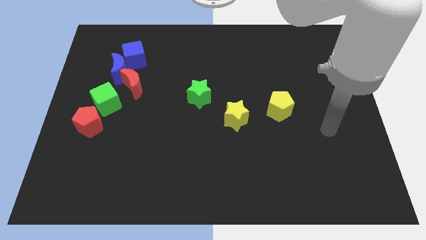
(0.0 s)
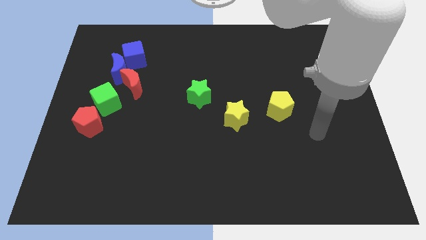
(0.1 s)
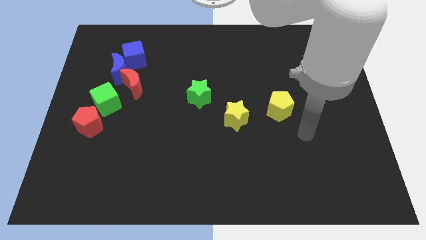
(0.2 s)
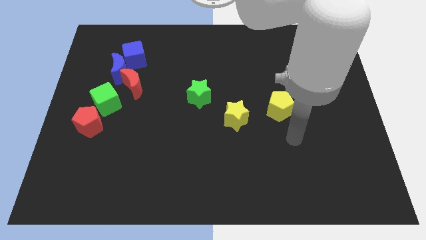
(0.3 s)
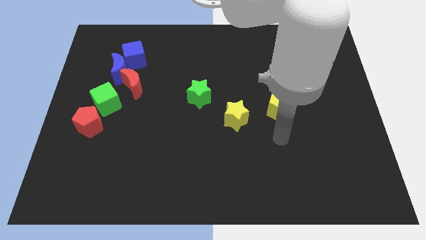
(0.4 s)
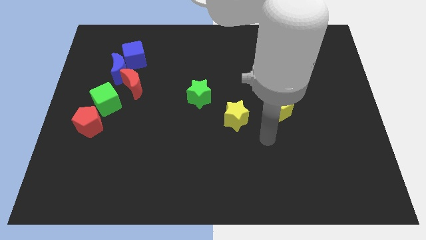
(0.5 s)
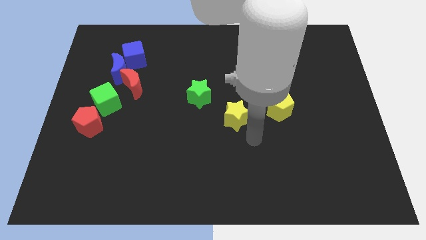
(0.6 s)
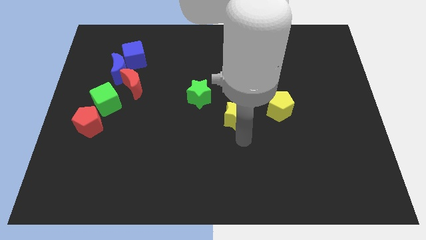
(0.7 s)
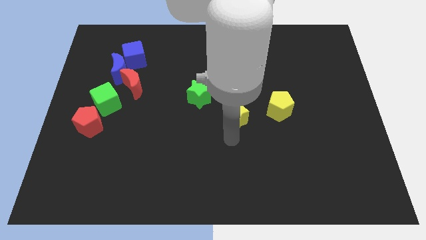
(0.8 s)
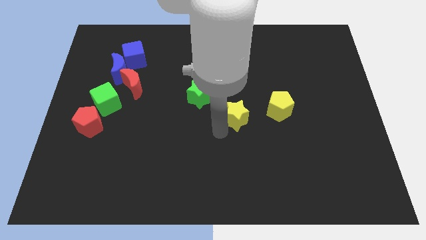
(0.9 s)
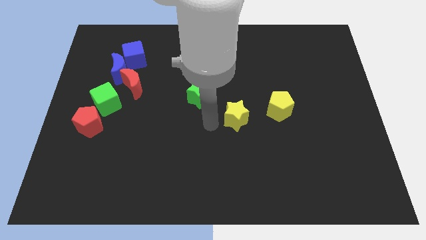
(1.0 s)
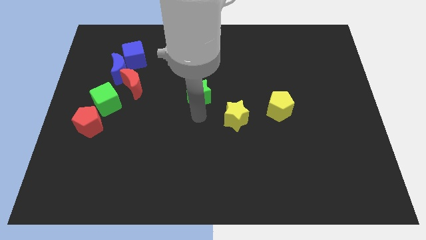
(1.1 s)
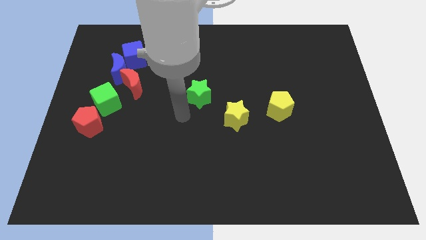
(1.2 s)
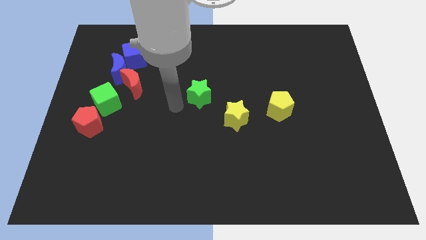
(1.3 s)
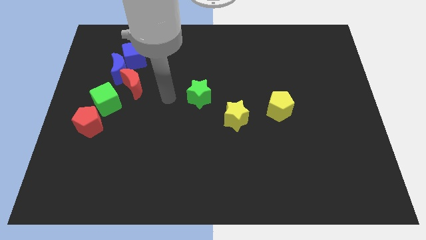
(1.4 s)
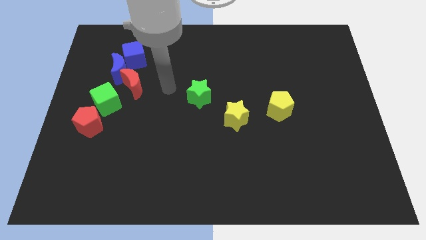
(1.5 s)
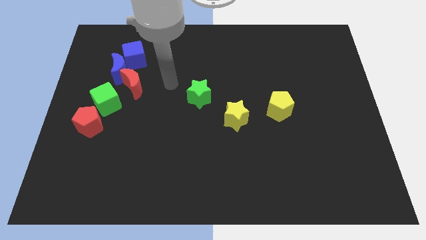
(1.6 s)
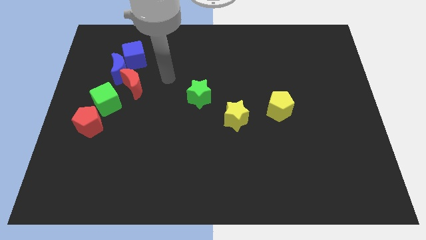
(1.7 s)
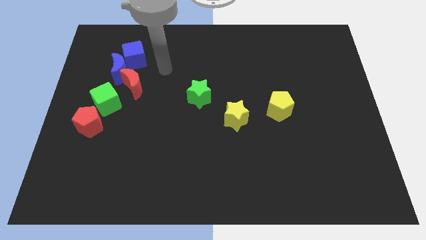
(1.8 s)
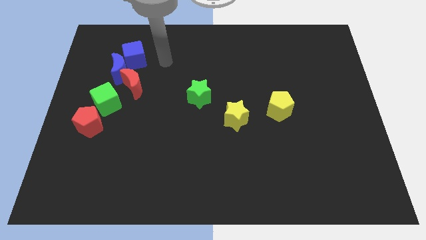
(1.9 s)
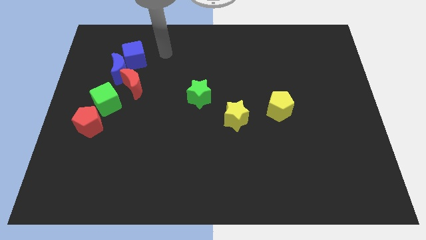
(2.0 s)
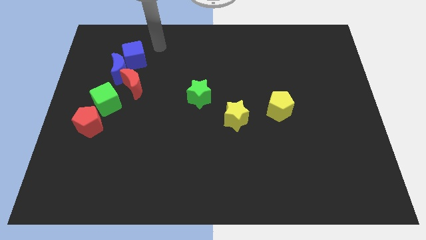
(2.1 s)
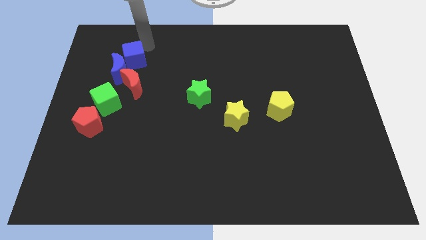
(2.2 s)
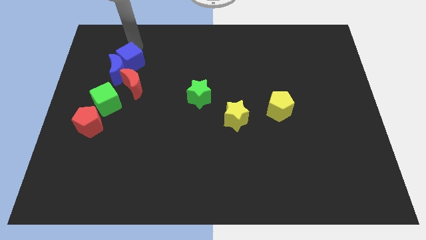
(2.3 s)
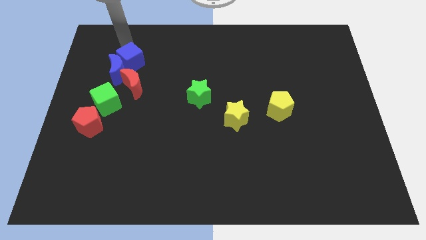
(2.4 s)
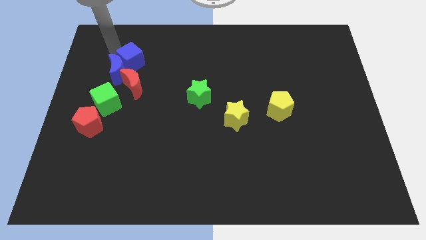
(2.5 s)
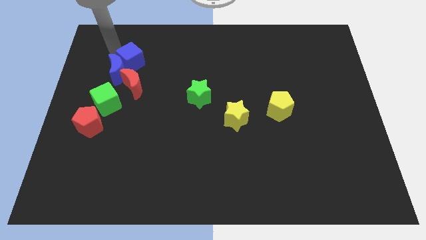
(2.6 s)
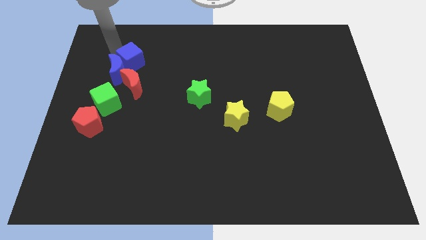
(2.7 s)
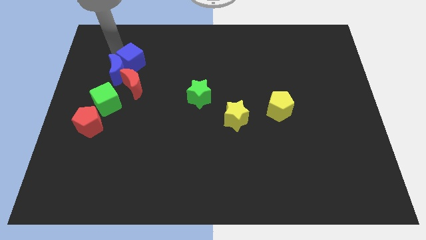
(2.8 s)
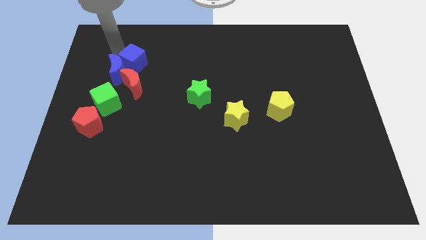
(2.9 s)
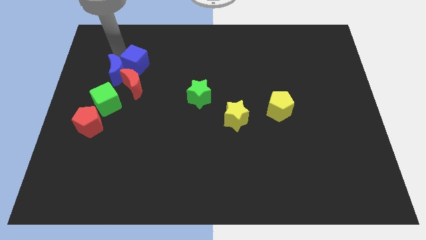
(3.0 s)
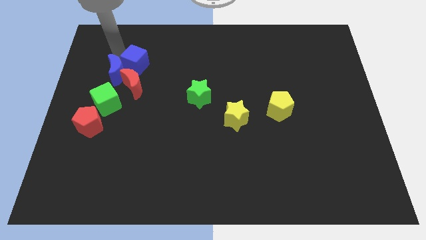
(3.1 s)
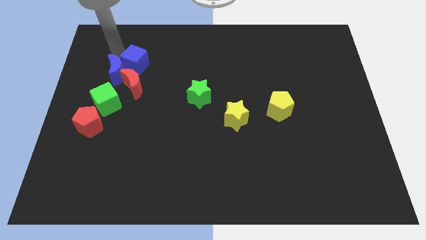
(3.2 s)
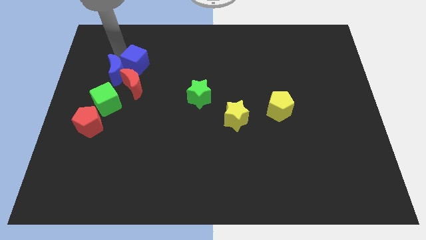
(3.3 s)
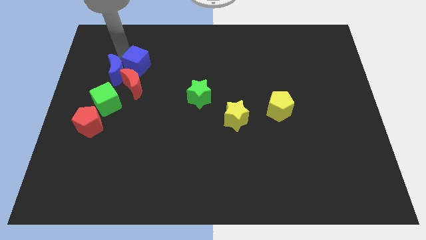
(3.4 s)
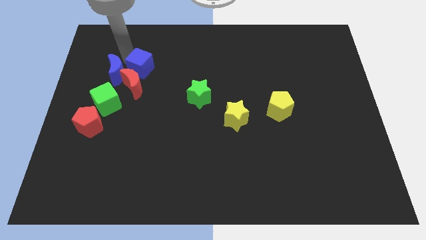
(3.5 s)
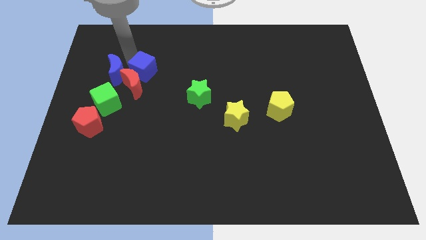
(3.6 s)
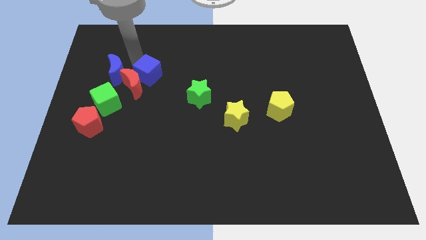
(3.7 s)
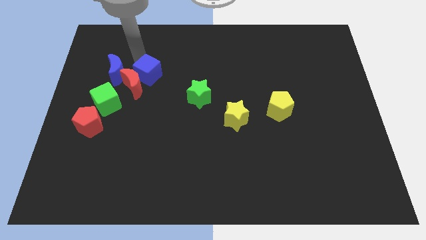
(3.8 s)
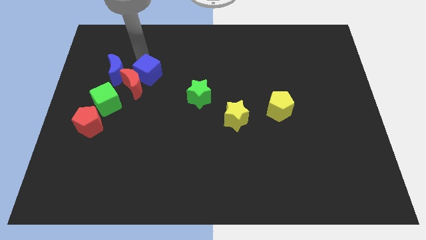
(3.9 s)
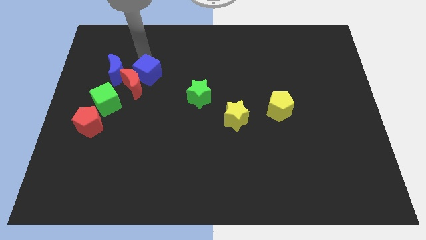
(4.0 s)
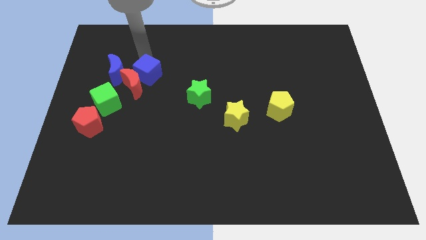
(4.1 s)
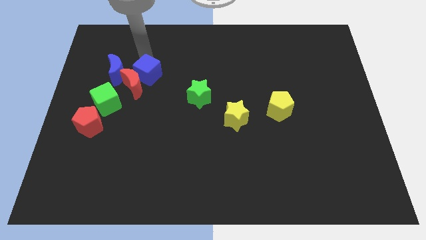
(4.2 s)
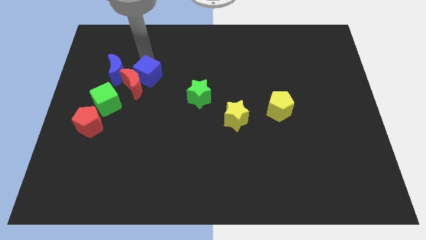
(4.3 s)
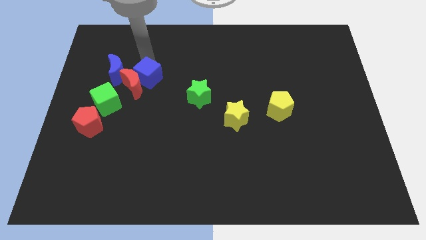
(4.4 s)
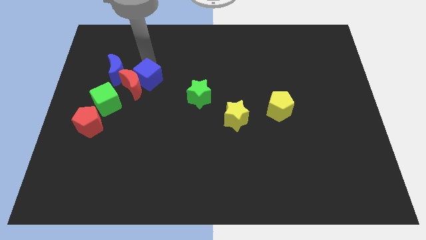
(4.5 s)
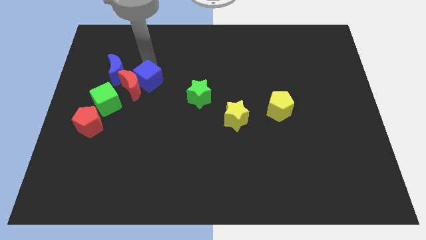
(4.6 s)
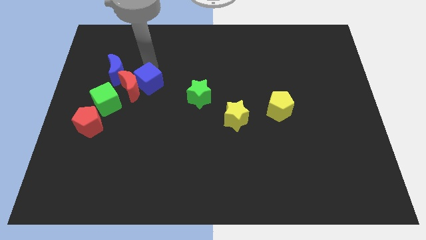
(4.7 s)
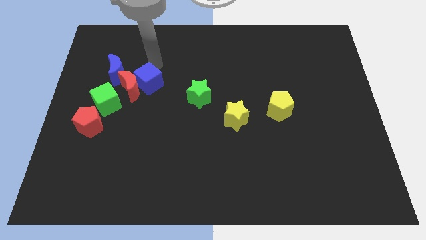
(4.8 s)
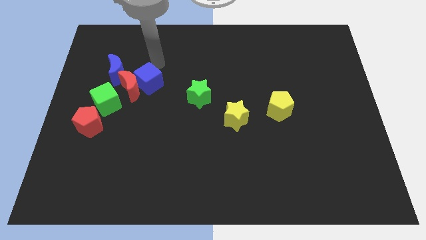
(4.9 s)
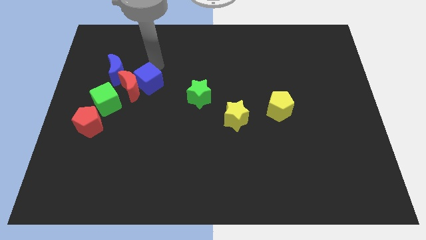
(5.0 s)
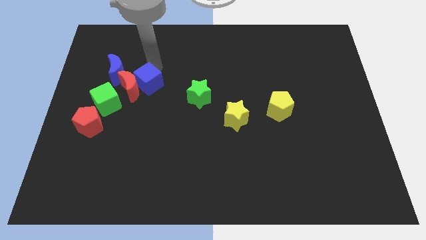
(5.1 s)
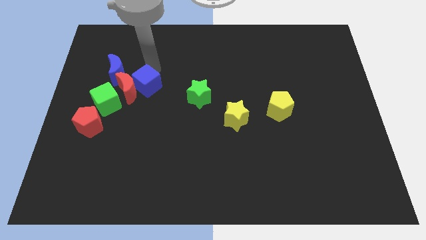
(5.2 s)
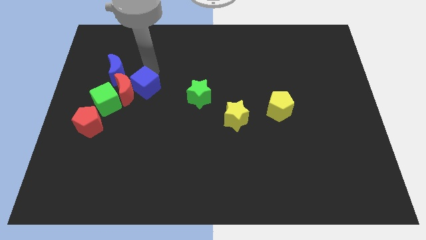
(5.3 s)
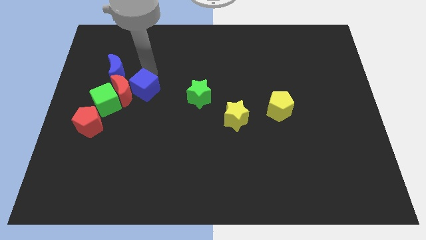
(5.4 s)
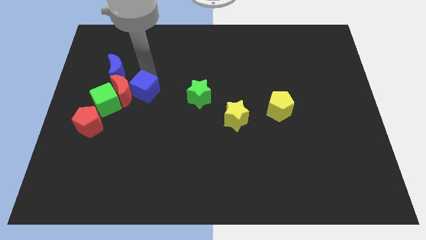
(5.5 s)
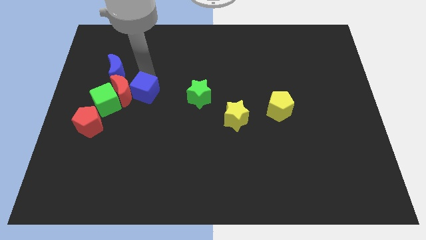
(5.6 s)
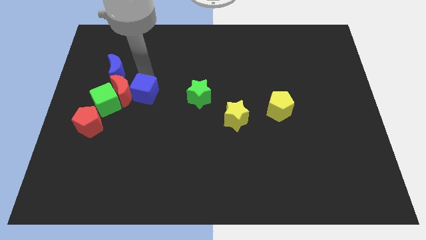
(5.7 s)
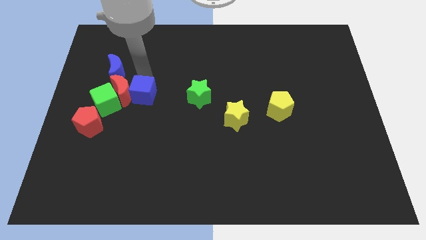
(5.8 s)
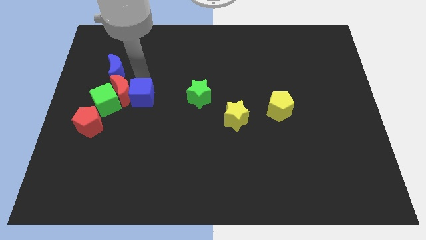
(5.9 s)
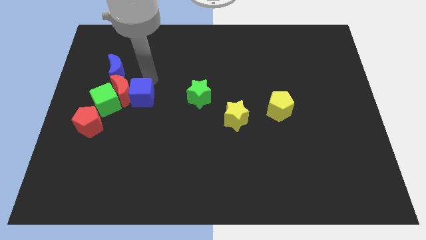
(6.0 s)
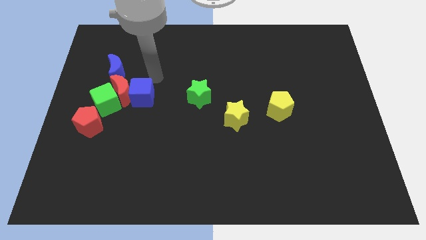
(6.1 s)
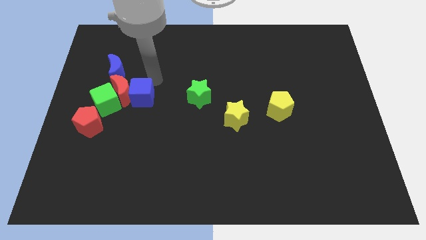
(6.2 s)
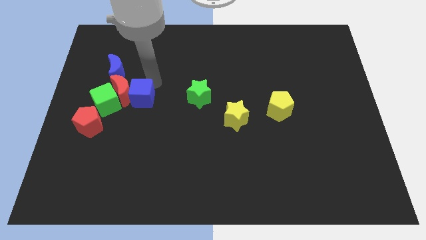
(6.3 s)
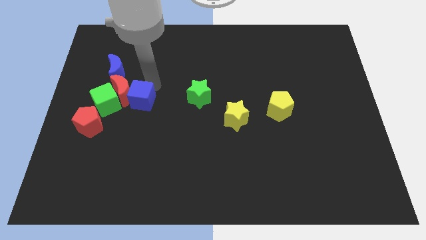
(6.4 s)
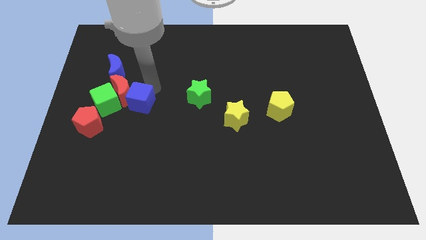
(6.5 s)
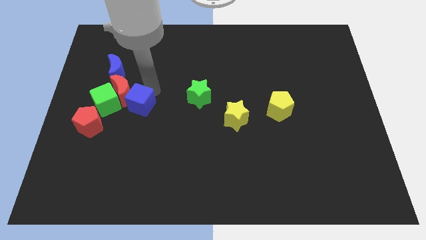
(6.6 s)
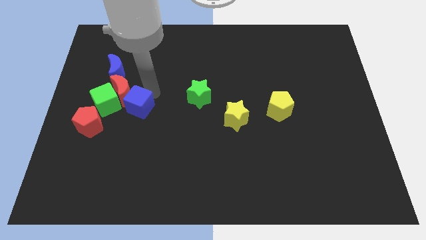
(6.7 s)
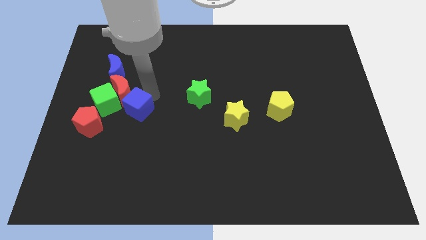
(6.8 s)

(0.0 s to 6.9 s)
move the blue cube to the bottom right side of the green cube
